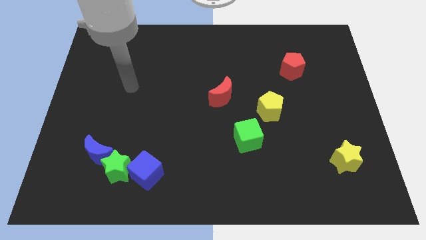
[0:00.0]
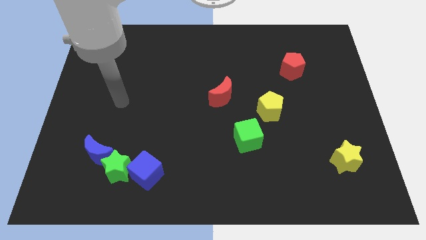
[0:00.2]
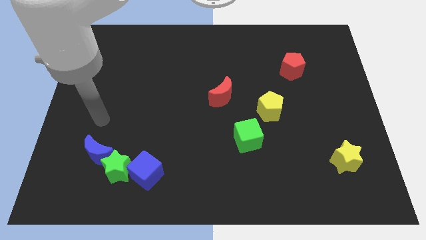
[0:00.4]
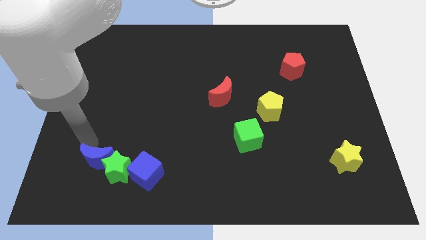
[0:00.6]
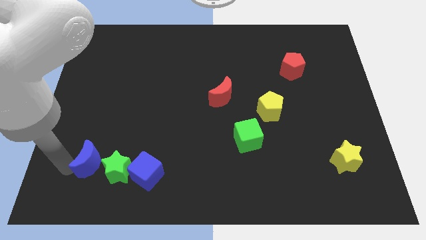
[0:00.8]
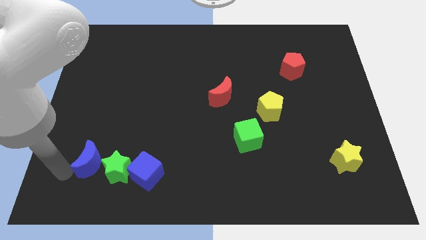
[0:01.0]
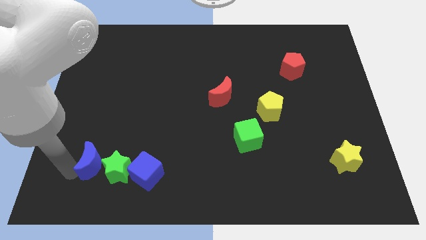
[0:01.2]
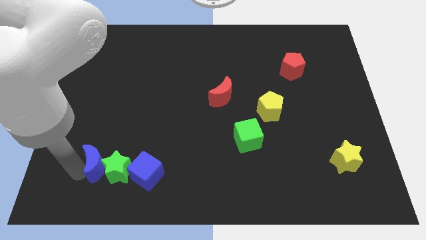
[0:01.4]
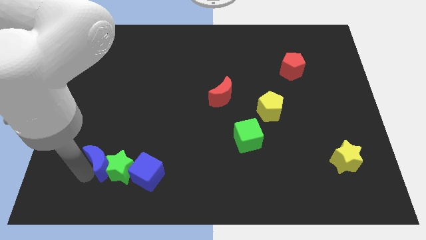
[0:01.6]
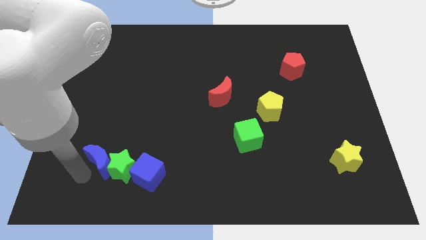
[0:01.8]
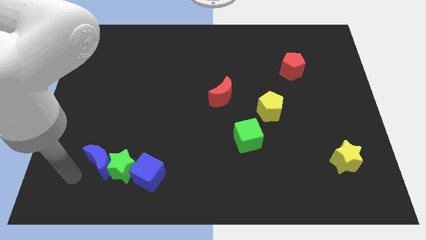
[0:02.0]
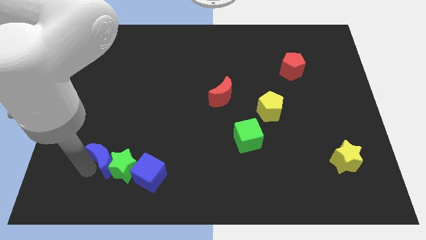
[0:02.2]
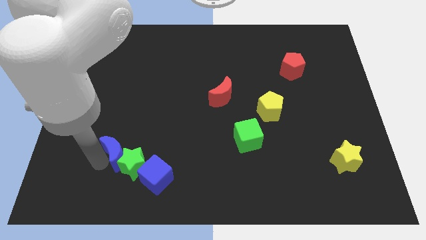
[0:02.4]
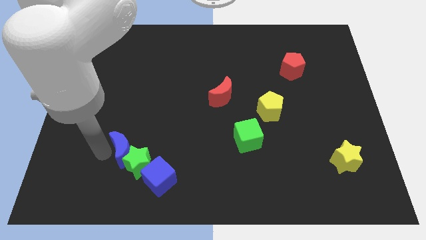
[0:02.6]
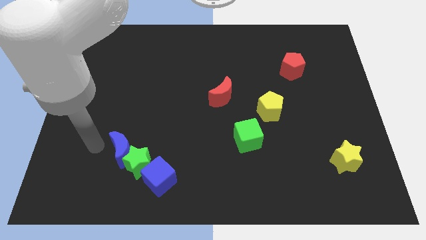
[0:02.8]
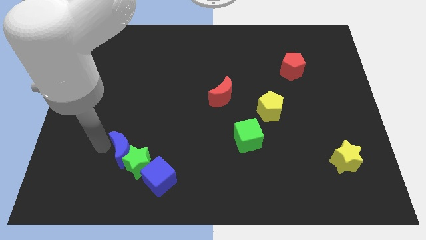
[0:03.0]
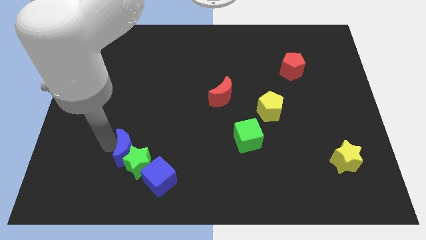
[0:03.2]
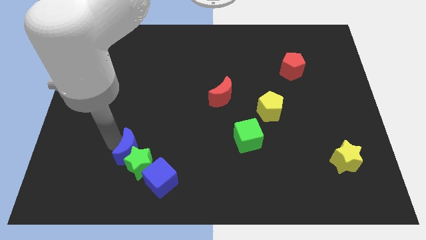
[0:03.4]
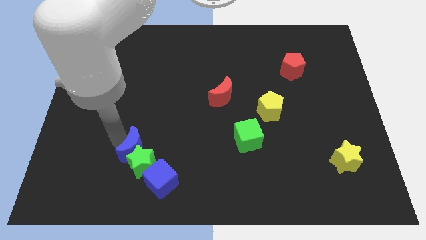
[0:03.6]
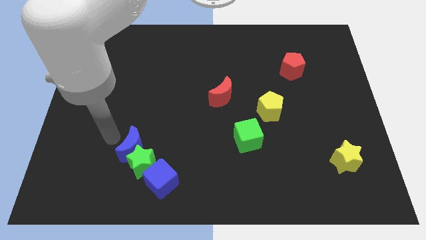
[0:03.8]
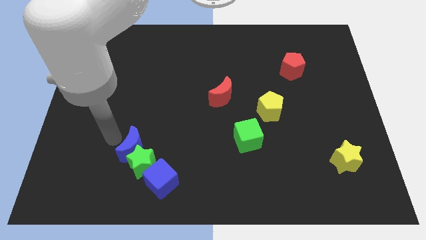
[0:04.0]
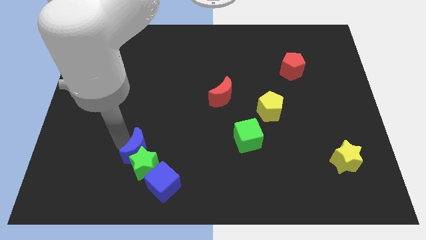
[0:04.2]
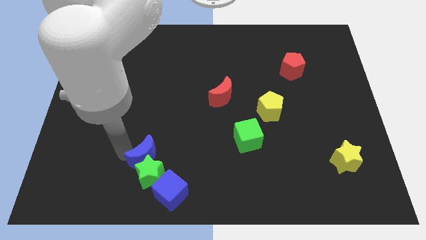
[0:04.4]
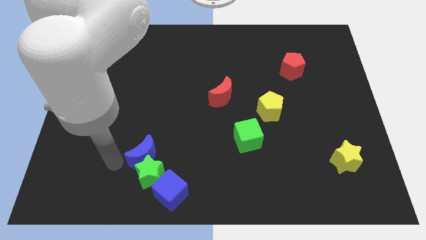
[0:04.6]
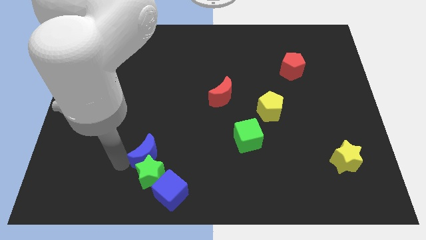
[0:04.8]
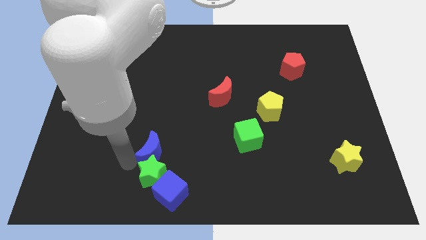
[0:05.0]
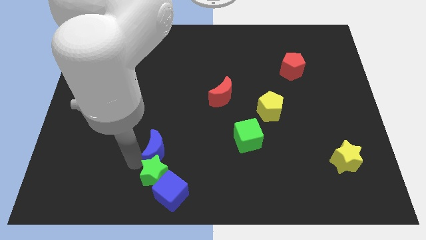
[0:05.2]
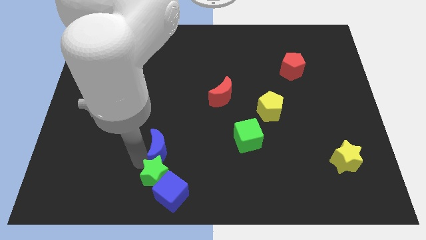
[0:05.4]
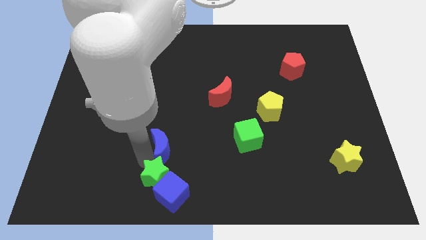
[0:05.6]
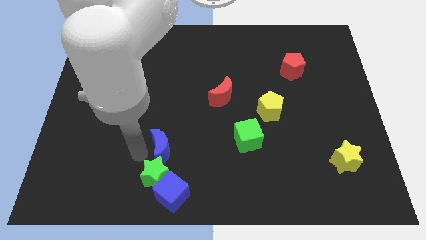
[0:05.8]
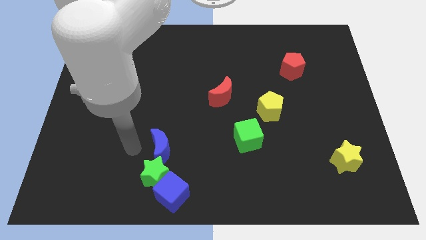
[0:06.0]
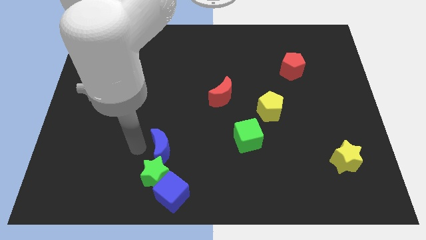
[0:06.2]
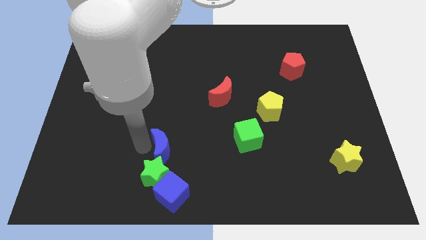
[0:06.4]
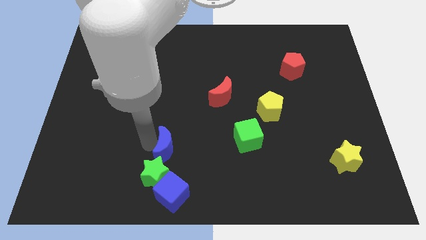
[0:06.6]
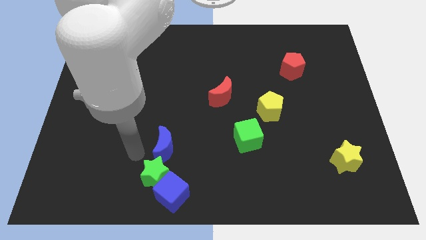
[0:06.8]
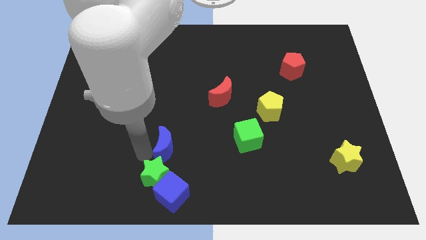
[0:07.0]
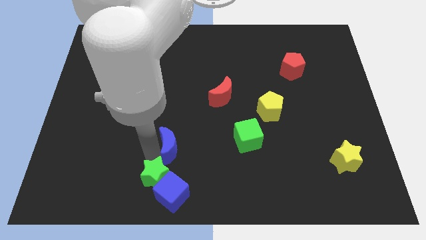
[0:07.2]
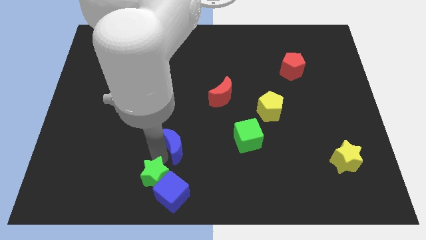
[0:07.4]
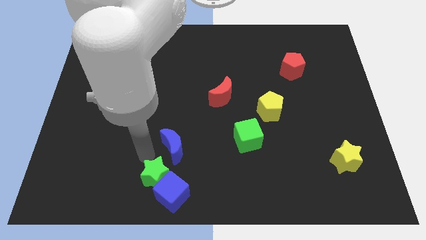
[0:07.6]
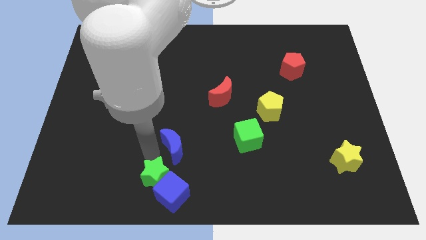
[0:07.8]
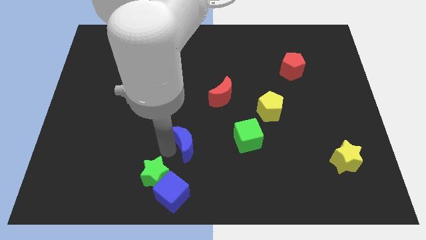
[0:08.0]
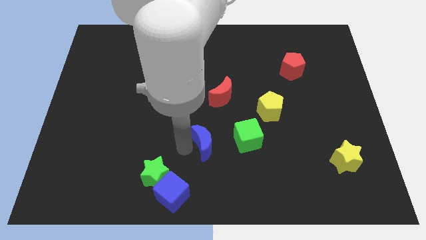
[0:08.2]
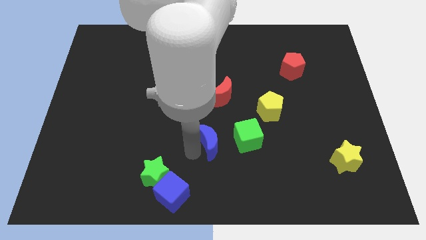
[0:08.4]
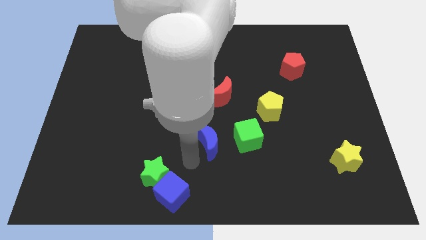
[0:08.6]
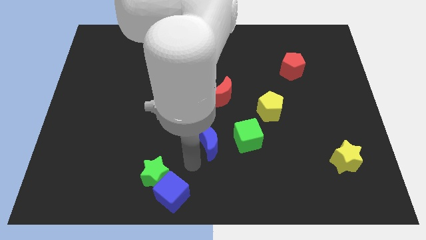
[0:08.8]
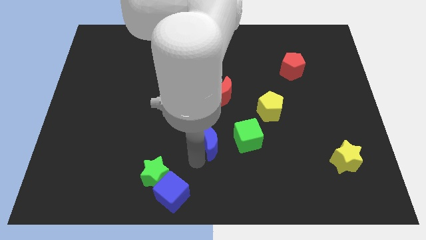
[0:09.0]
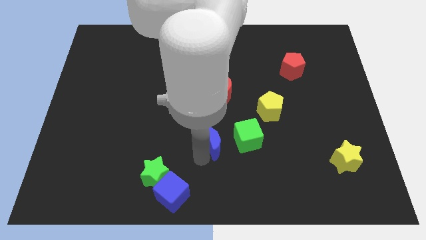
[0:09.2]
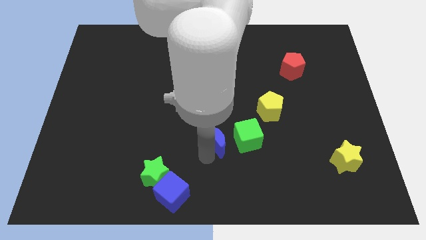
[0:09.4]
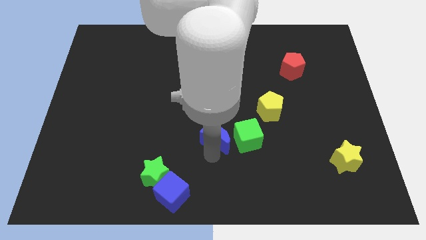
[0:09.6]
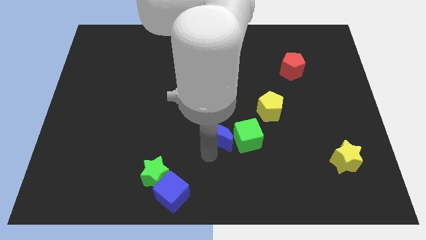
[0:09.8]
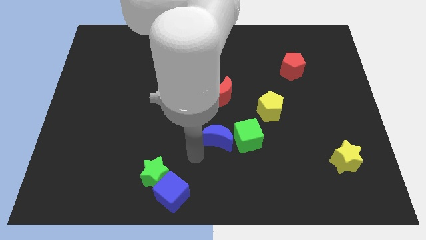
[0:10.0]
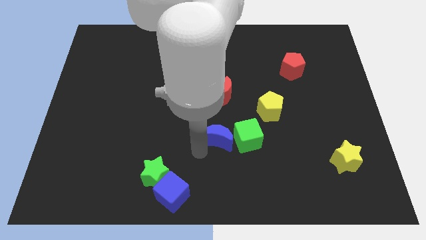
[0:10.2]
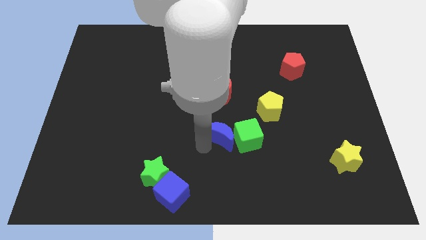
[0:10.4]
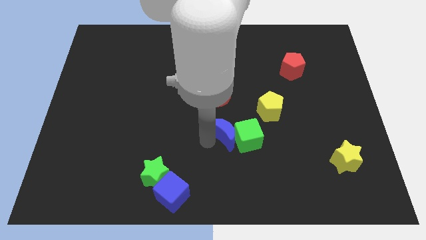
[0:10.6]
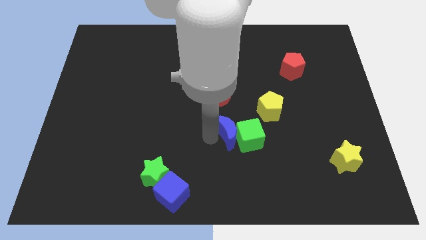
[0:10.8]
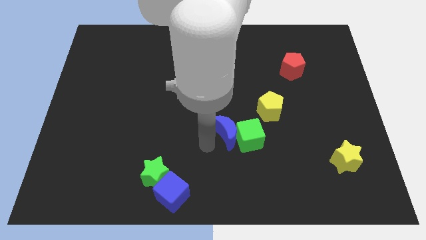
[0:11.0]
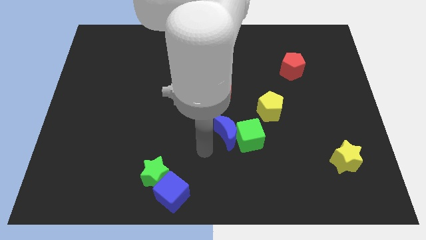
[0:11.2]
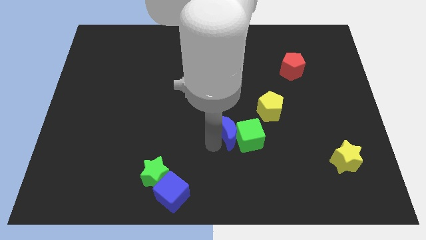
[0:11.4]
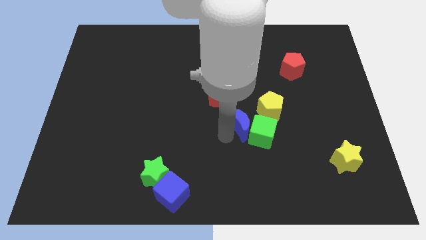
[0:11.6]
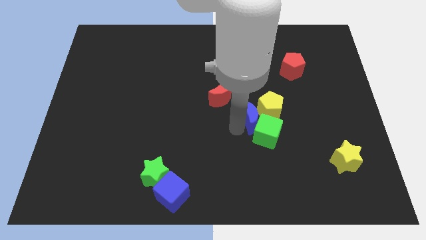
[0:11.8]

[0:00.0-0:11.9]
put the blue moon towards the yellow pentagon

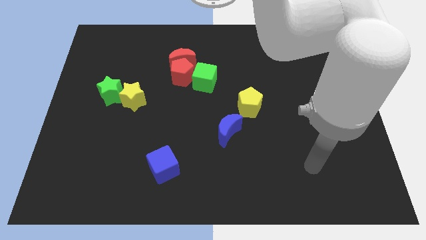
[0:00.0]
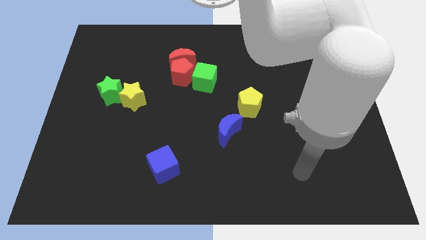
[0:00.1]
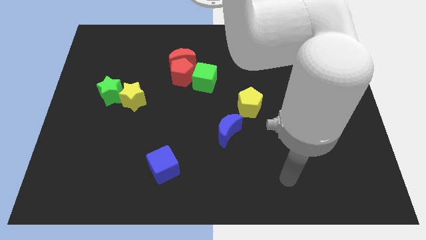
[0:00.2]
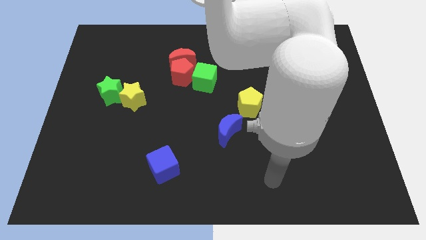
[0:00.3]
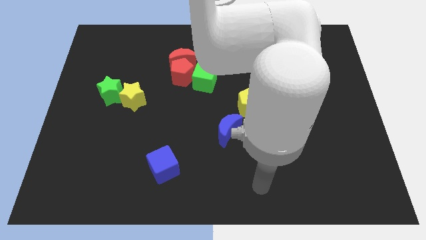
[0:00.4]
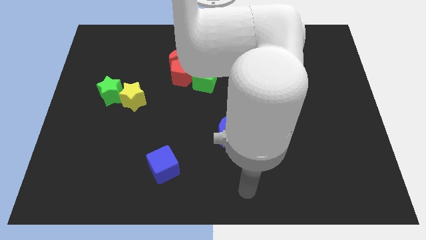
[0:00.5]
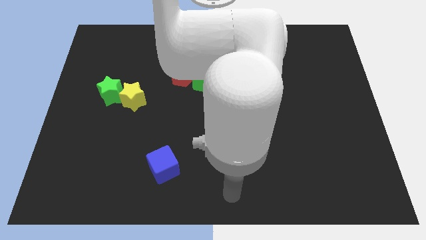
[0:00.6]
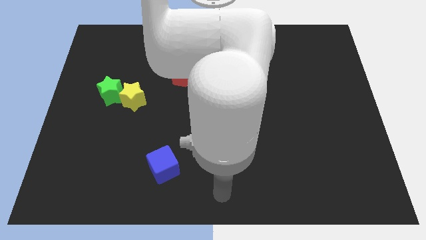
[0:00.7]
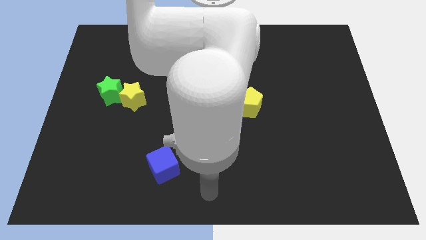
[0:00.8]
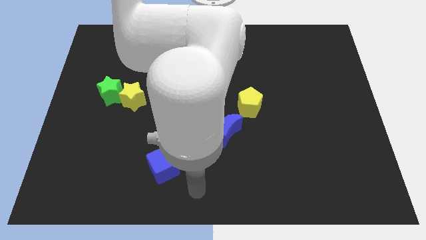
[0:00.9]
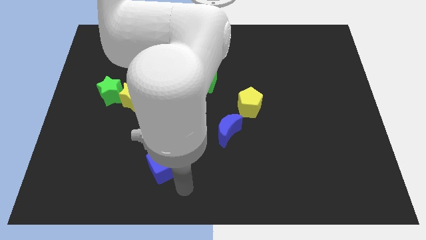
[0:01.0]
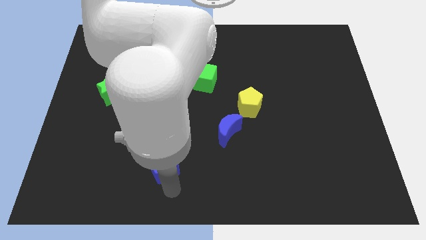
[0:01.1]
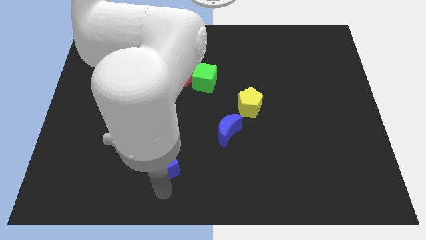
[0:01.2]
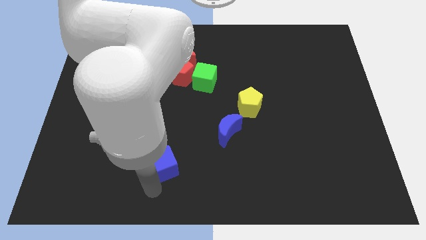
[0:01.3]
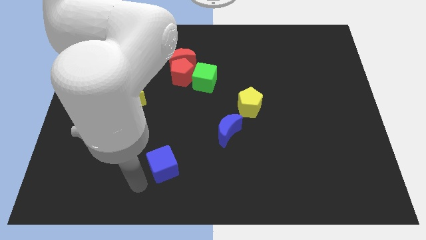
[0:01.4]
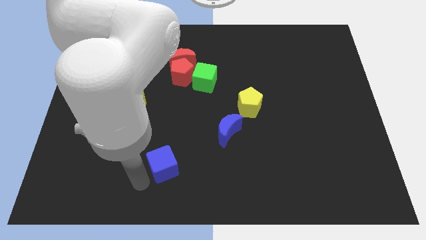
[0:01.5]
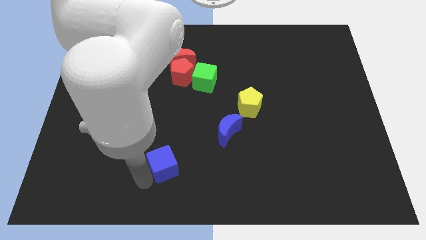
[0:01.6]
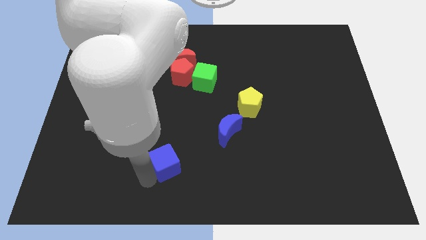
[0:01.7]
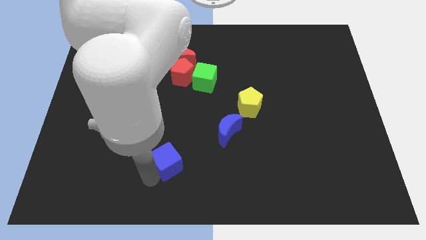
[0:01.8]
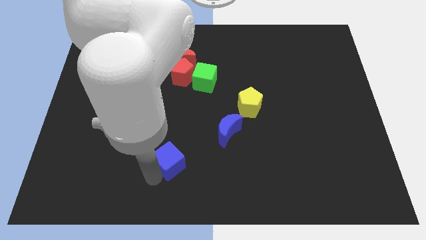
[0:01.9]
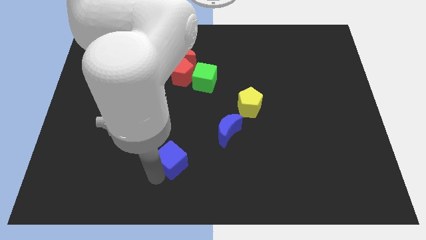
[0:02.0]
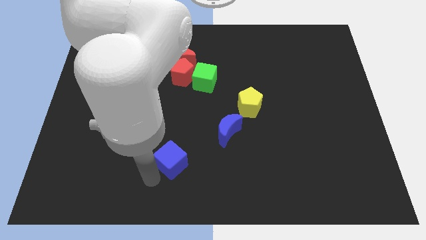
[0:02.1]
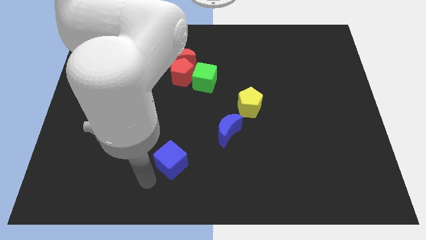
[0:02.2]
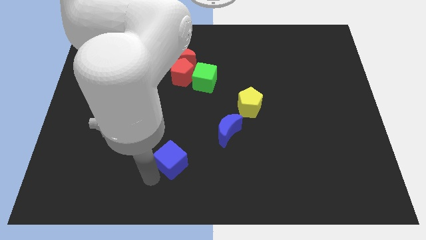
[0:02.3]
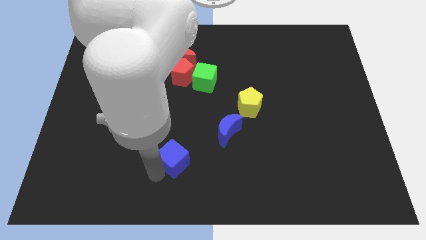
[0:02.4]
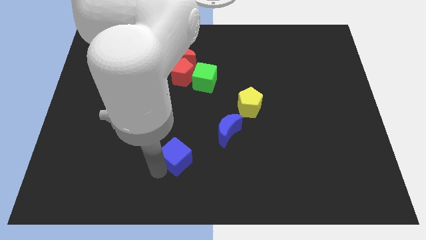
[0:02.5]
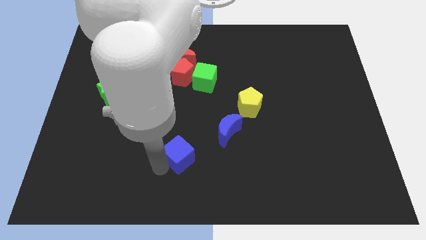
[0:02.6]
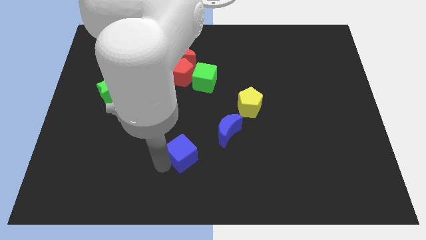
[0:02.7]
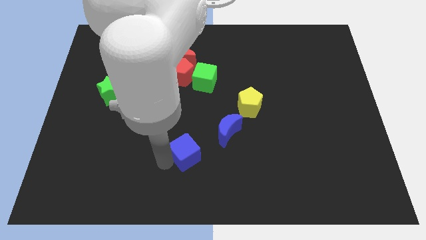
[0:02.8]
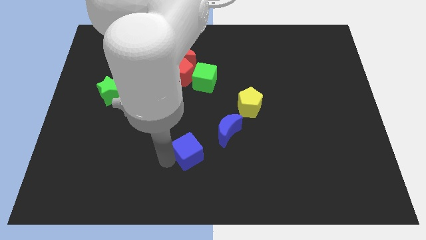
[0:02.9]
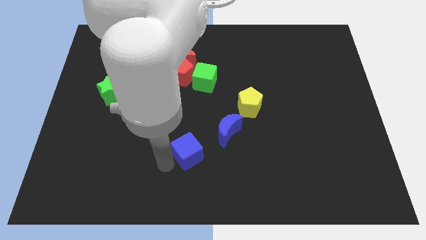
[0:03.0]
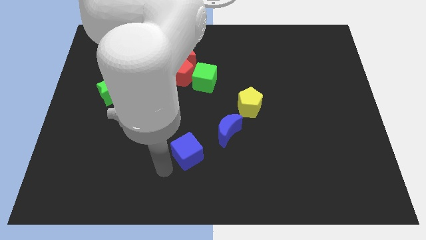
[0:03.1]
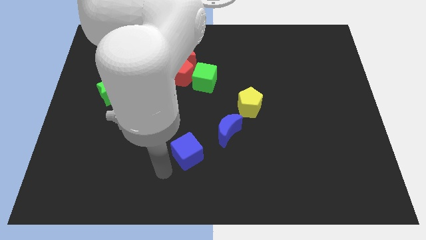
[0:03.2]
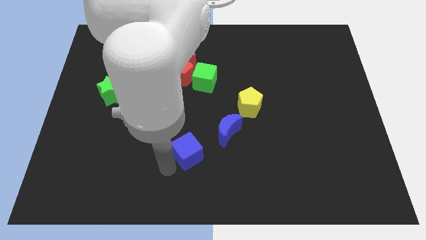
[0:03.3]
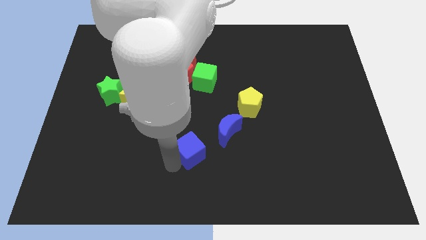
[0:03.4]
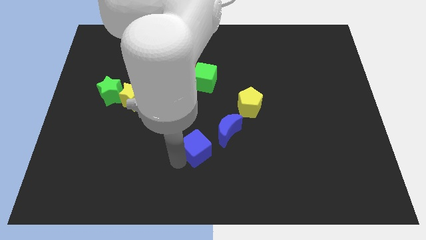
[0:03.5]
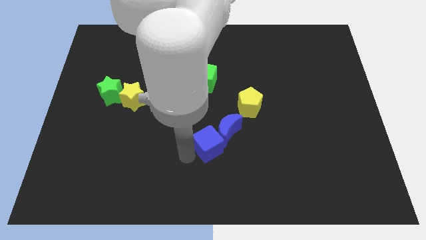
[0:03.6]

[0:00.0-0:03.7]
push the blue cube towards the blue moon
